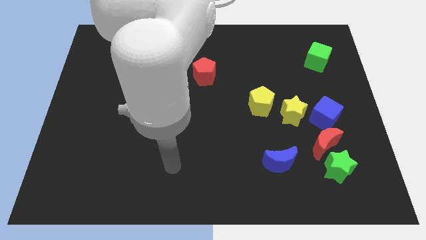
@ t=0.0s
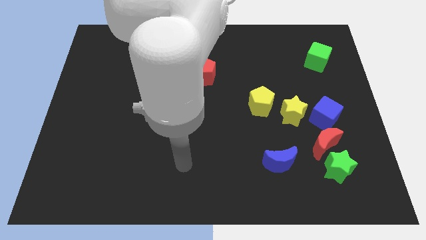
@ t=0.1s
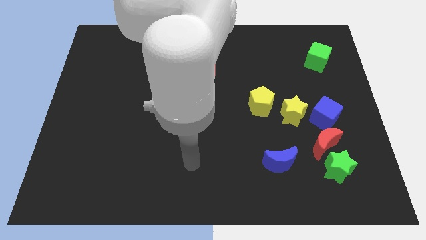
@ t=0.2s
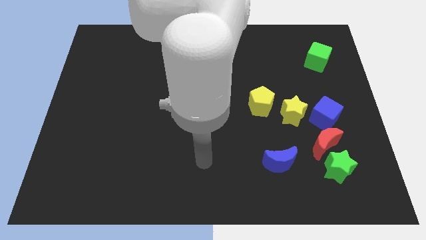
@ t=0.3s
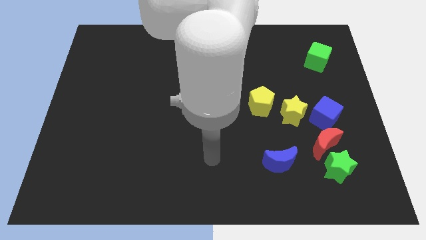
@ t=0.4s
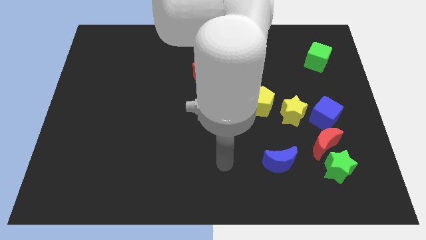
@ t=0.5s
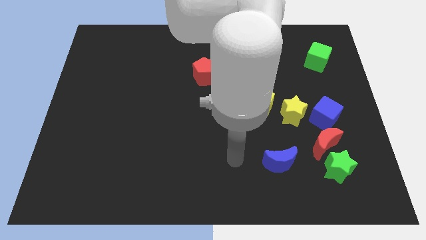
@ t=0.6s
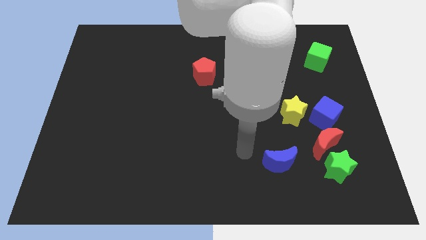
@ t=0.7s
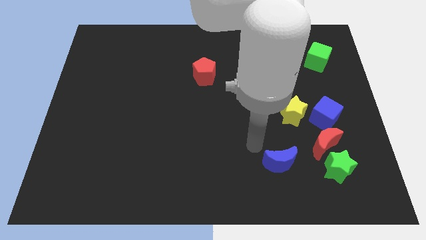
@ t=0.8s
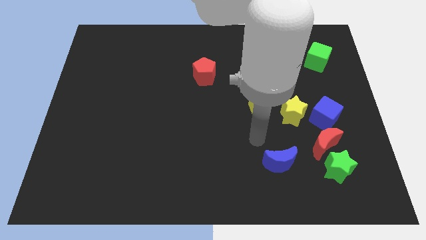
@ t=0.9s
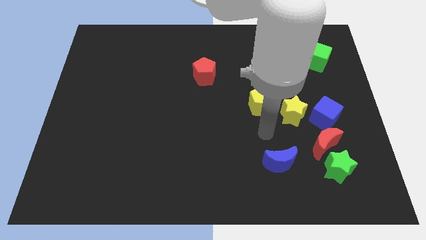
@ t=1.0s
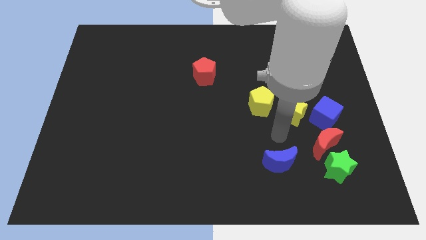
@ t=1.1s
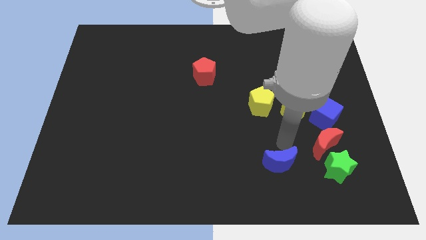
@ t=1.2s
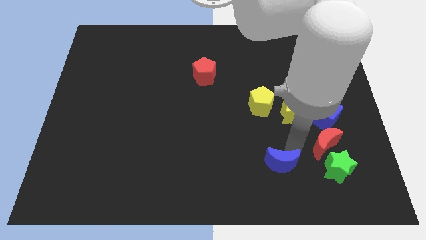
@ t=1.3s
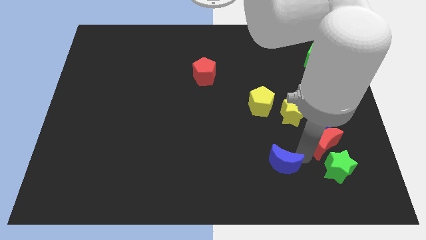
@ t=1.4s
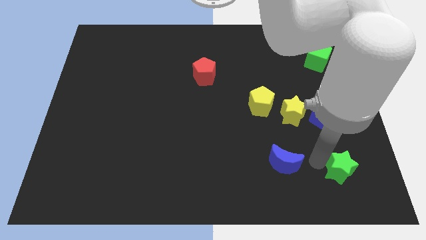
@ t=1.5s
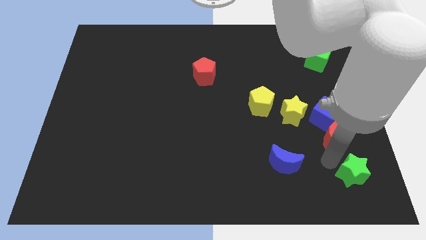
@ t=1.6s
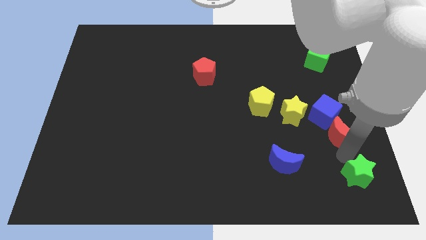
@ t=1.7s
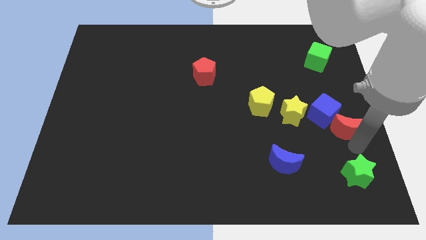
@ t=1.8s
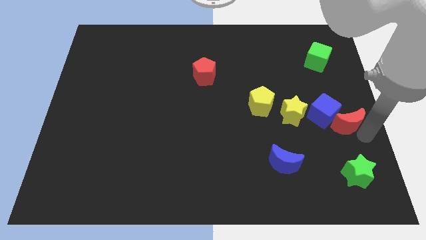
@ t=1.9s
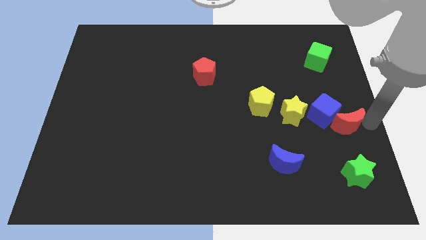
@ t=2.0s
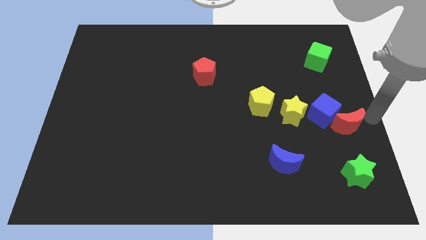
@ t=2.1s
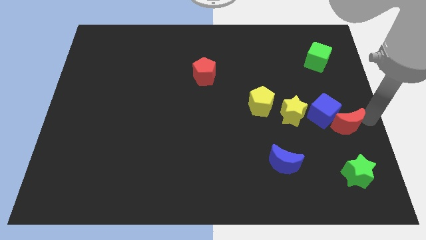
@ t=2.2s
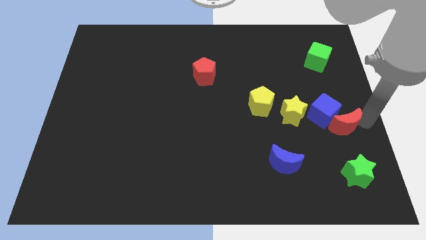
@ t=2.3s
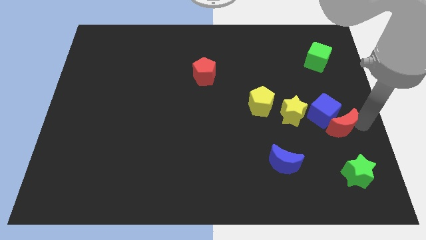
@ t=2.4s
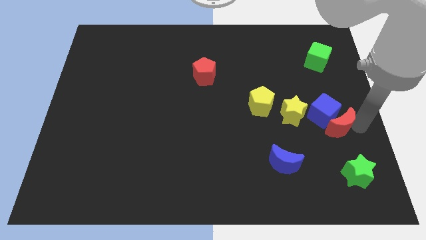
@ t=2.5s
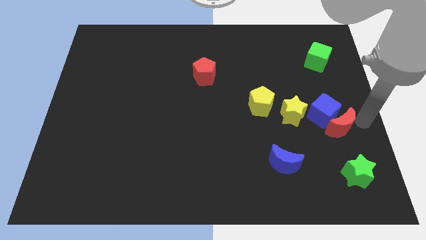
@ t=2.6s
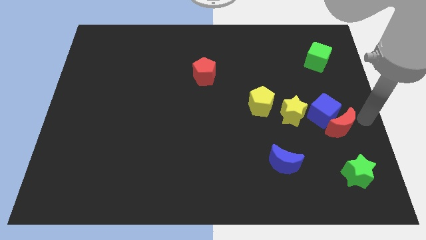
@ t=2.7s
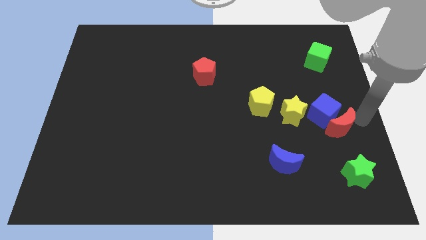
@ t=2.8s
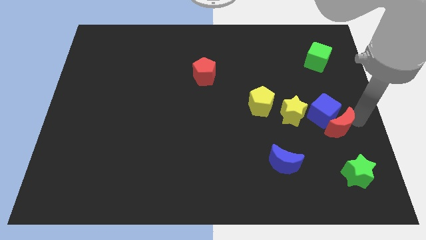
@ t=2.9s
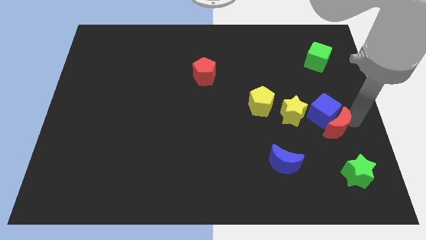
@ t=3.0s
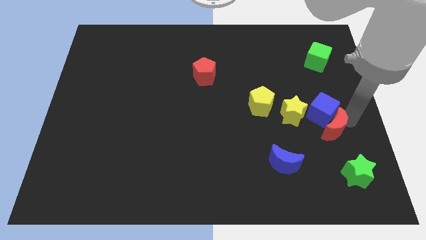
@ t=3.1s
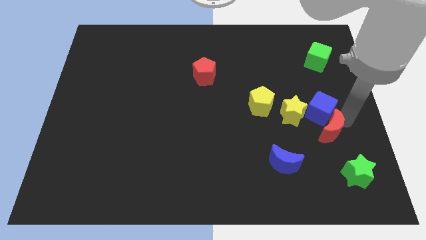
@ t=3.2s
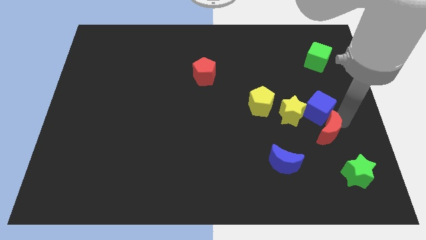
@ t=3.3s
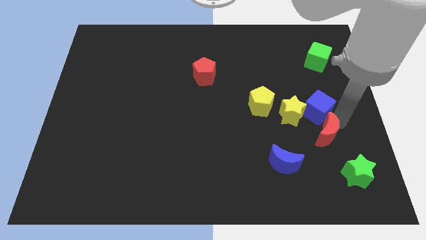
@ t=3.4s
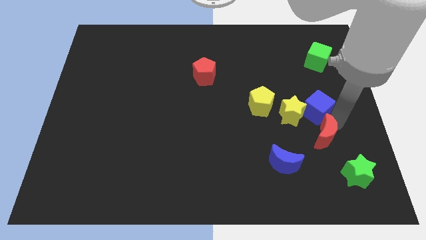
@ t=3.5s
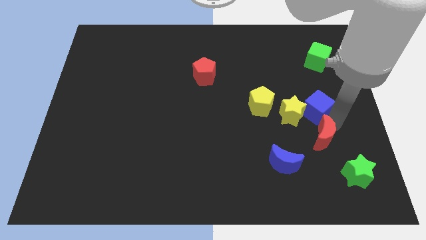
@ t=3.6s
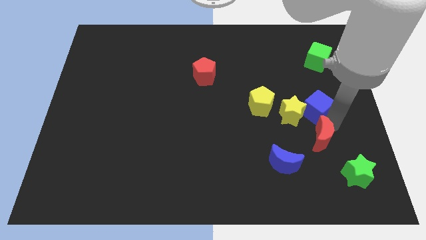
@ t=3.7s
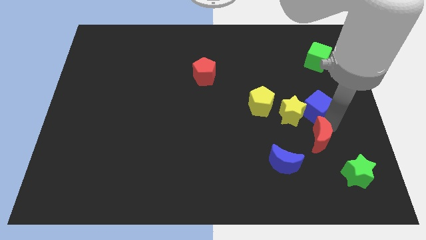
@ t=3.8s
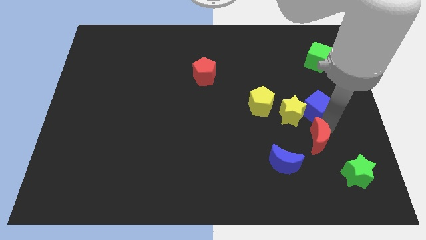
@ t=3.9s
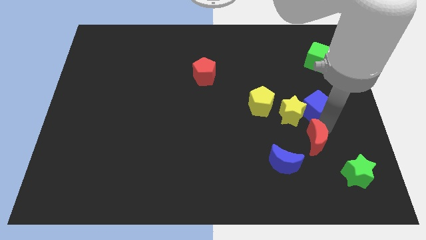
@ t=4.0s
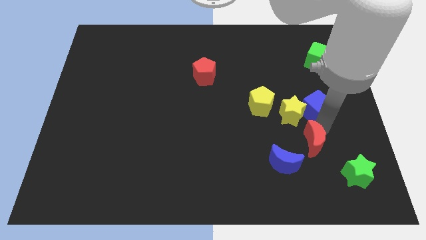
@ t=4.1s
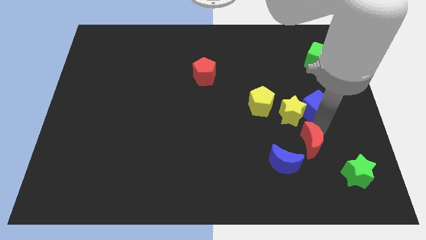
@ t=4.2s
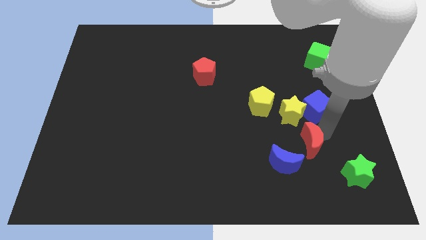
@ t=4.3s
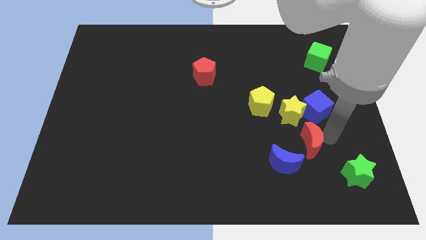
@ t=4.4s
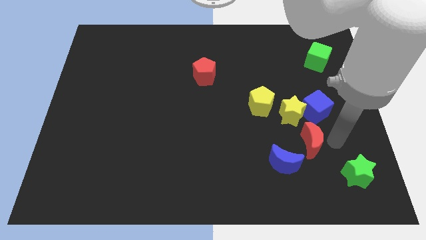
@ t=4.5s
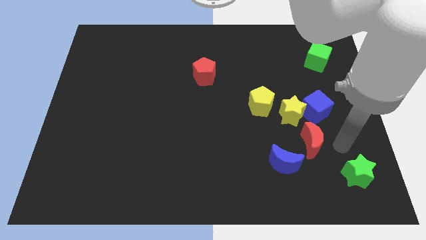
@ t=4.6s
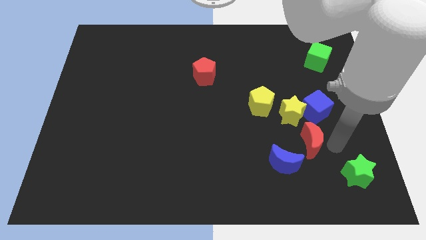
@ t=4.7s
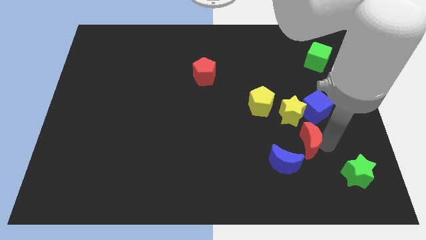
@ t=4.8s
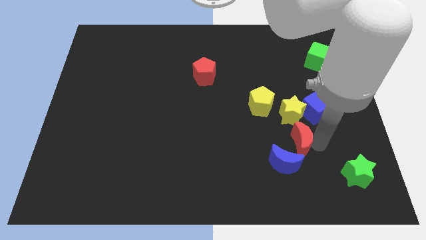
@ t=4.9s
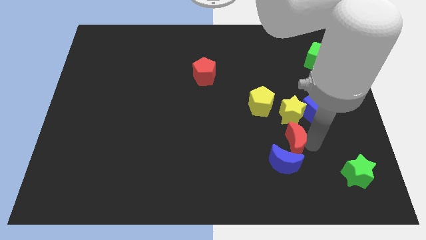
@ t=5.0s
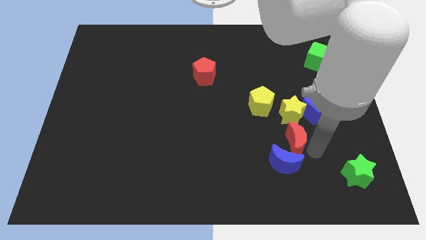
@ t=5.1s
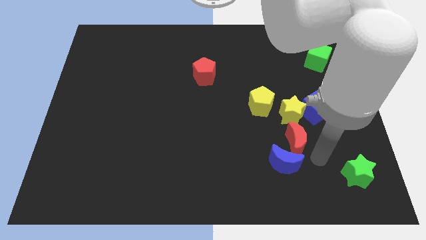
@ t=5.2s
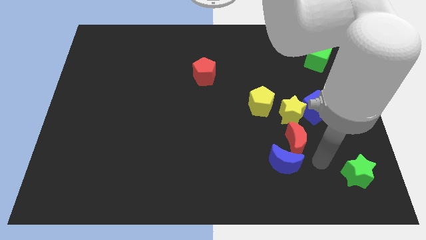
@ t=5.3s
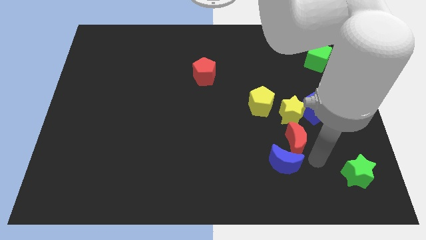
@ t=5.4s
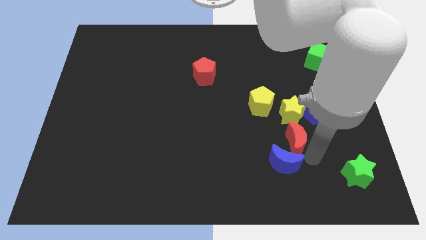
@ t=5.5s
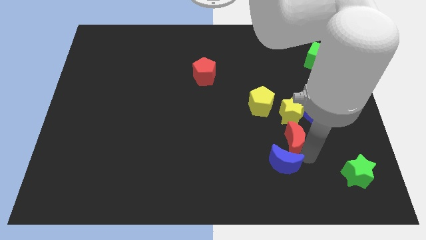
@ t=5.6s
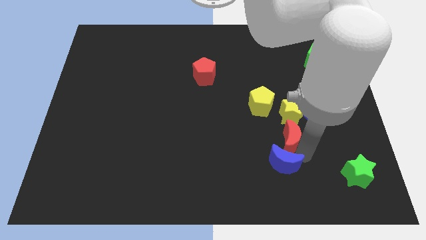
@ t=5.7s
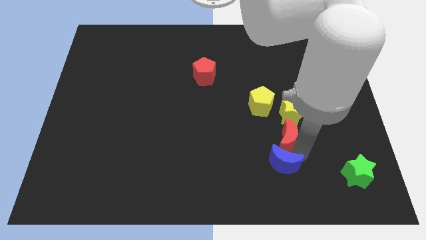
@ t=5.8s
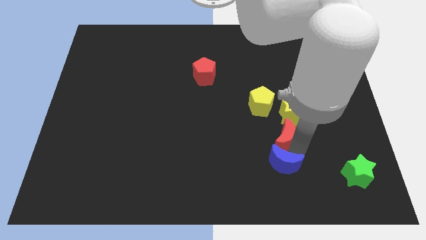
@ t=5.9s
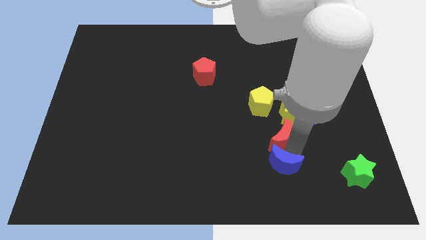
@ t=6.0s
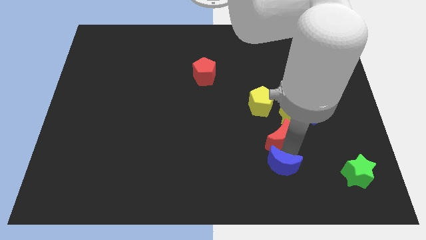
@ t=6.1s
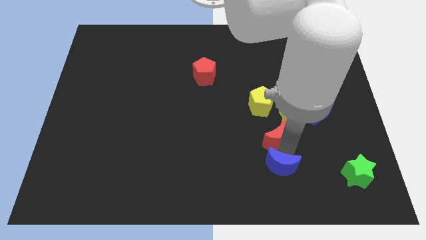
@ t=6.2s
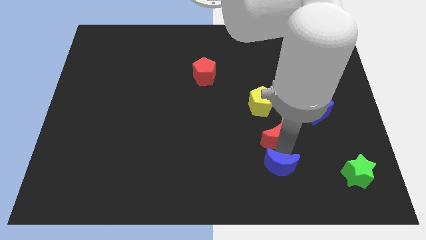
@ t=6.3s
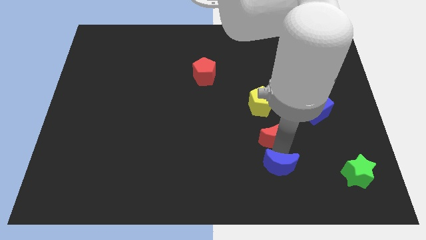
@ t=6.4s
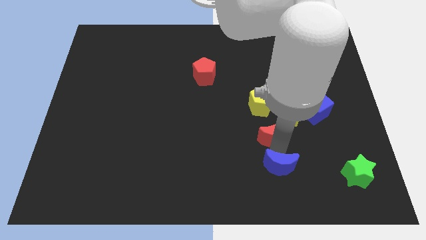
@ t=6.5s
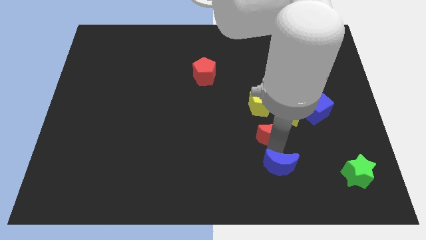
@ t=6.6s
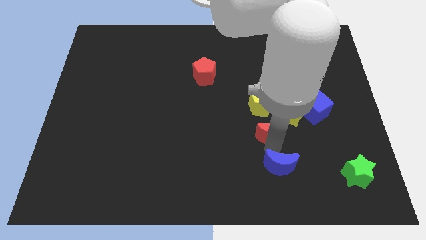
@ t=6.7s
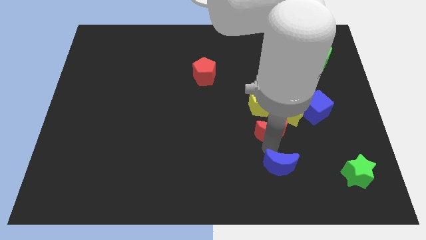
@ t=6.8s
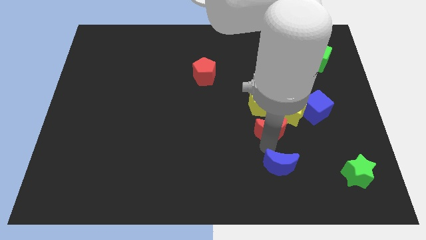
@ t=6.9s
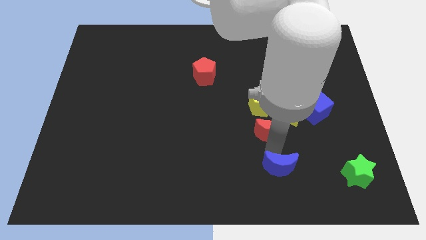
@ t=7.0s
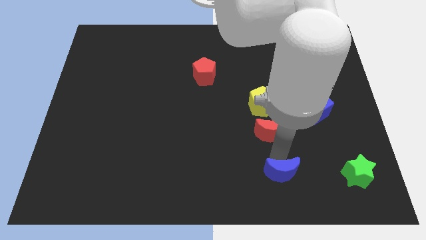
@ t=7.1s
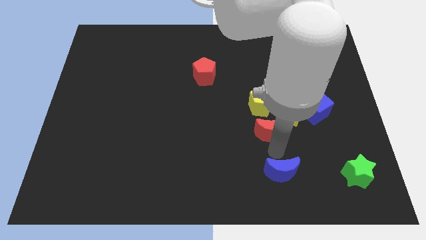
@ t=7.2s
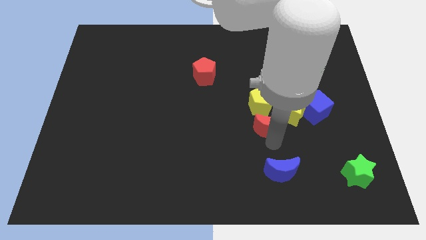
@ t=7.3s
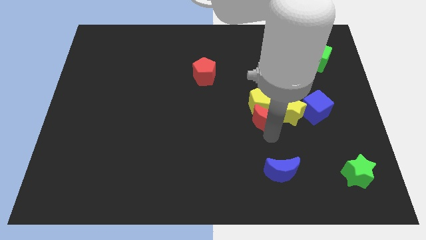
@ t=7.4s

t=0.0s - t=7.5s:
push the red moon to the yellow pentagon

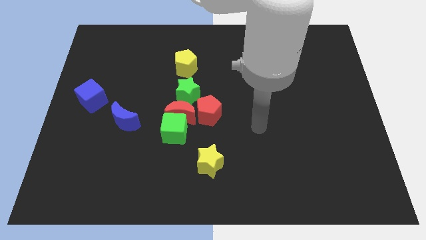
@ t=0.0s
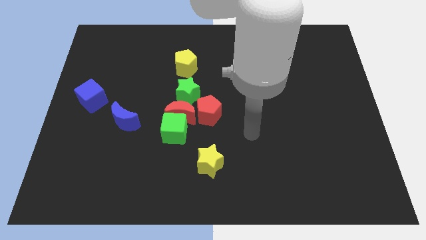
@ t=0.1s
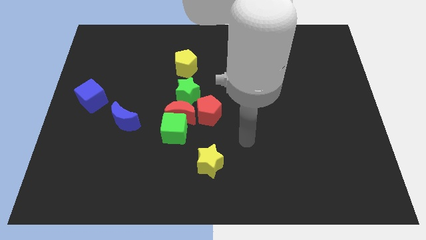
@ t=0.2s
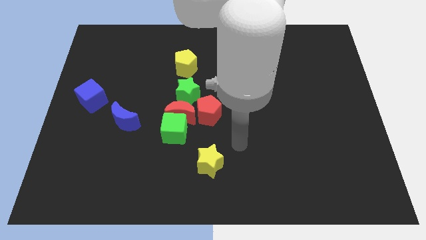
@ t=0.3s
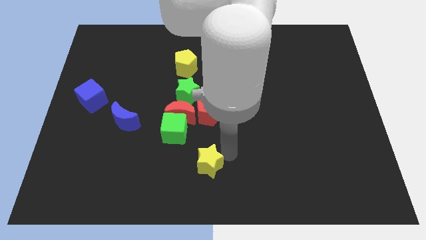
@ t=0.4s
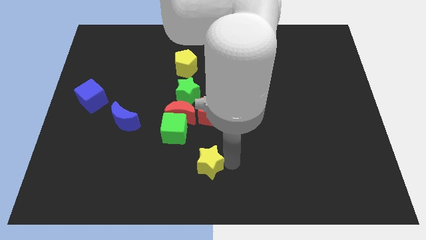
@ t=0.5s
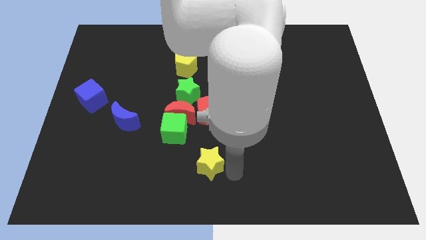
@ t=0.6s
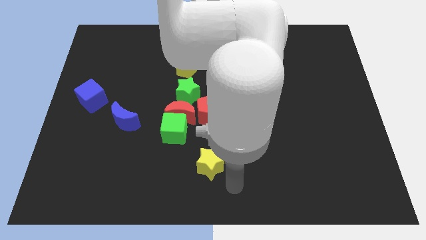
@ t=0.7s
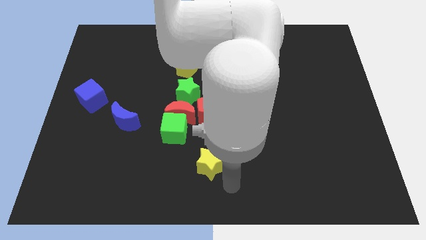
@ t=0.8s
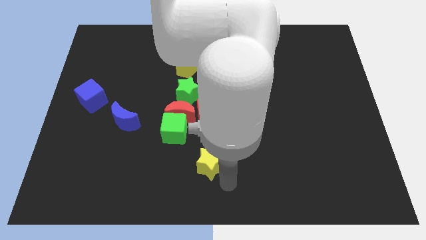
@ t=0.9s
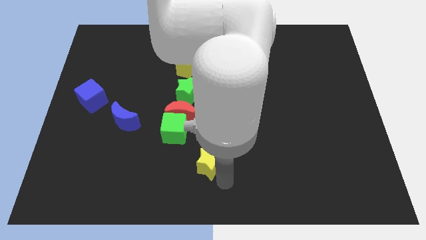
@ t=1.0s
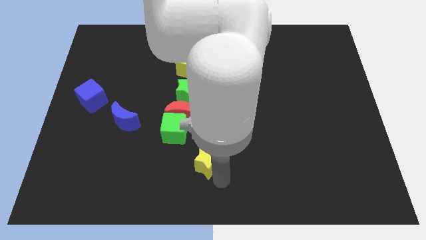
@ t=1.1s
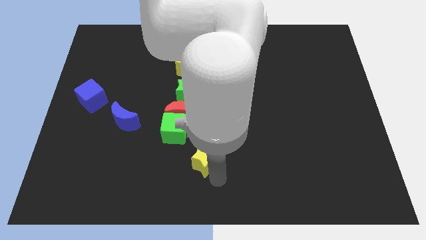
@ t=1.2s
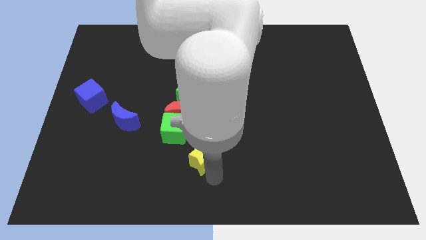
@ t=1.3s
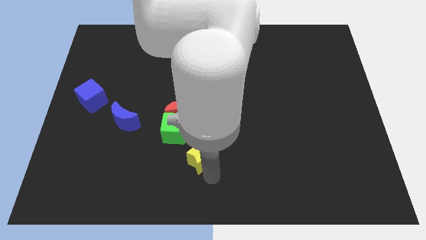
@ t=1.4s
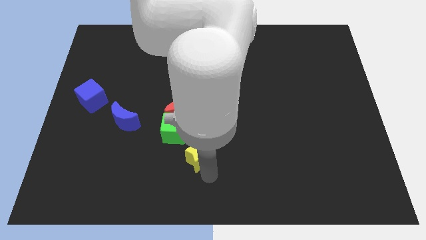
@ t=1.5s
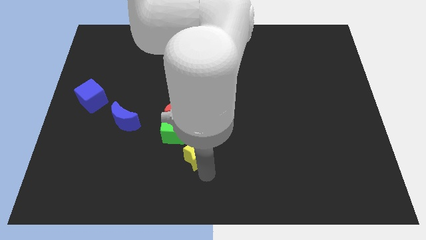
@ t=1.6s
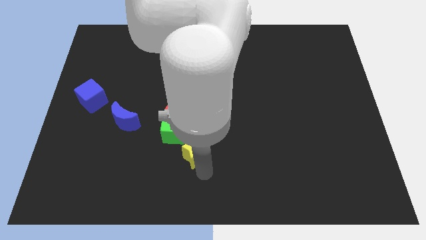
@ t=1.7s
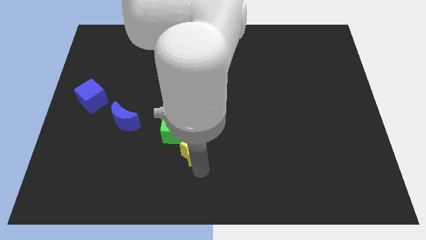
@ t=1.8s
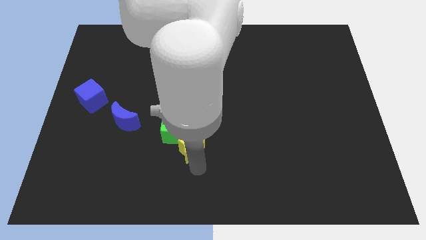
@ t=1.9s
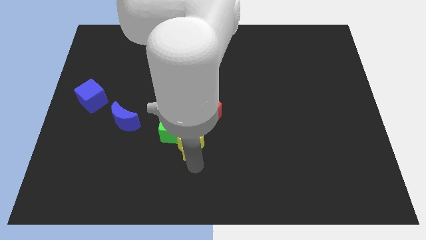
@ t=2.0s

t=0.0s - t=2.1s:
push the yellow star next to the green cube
